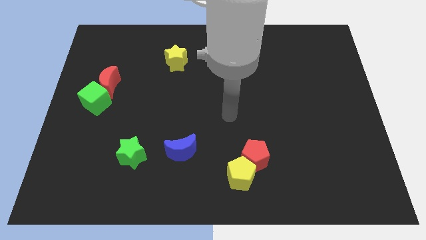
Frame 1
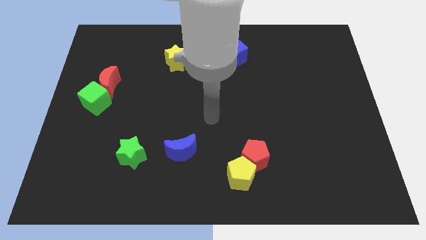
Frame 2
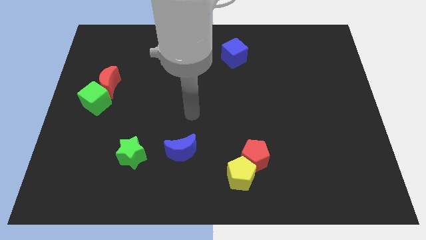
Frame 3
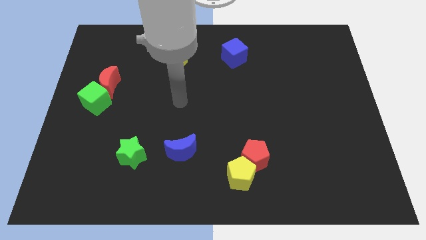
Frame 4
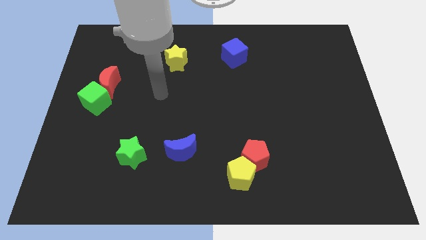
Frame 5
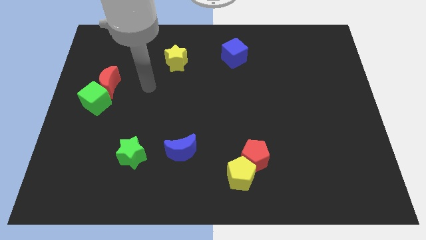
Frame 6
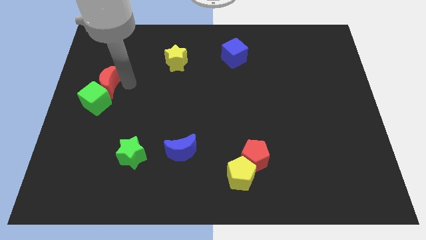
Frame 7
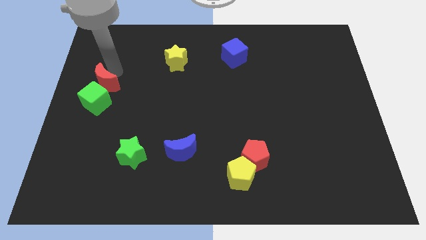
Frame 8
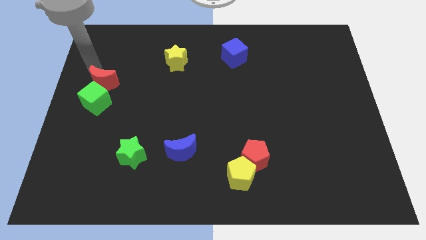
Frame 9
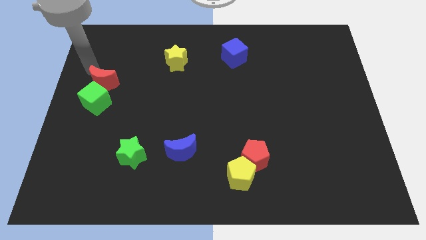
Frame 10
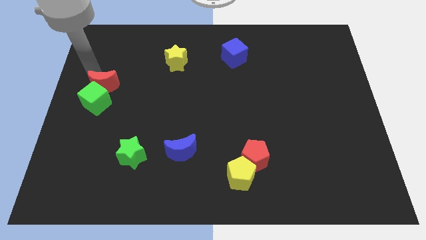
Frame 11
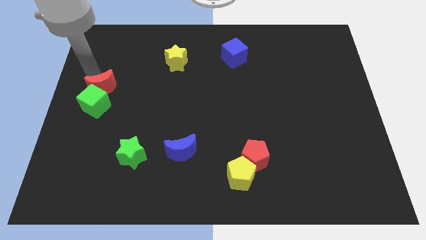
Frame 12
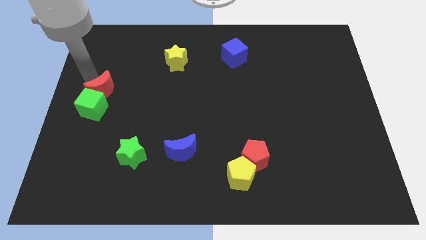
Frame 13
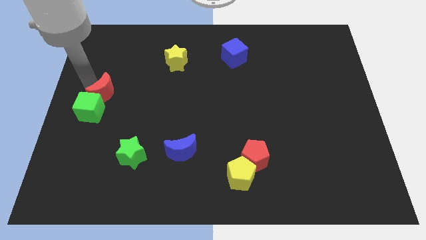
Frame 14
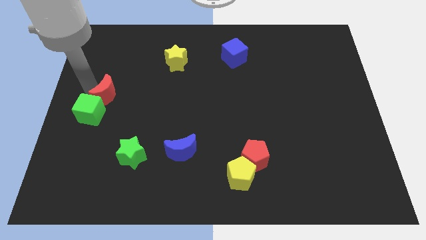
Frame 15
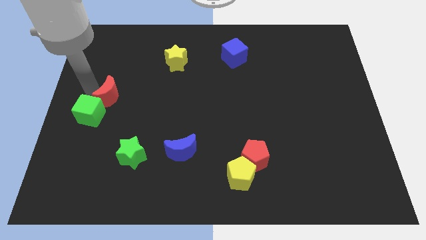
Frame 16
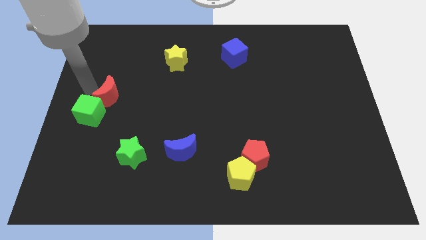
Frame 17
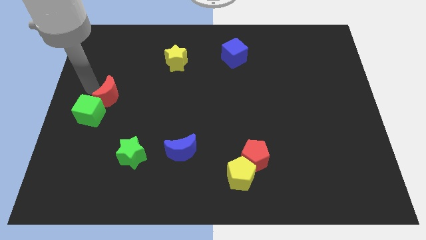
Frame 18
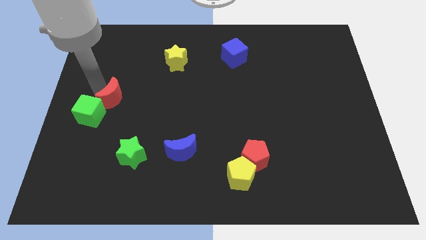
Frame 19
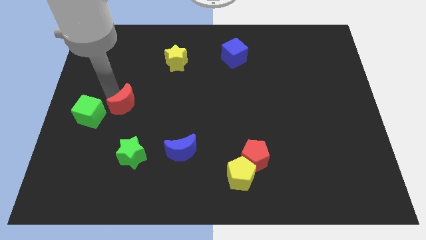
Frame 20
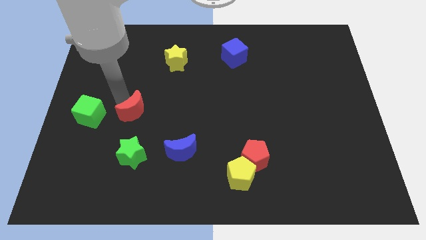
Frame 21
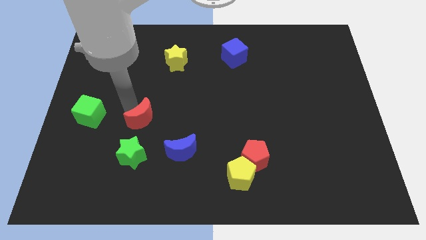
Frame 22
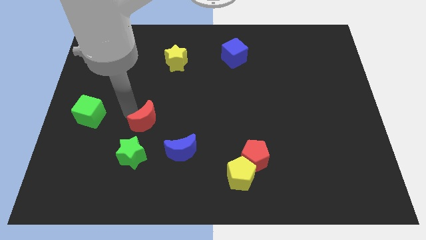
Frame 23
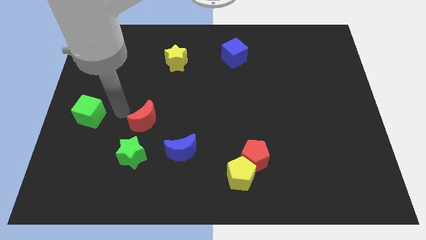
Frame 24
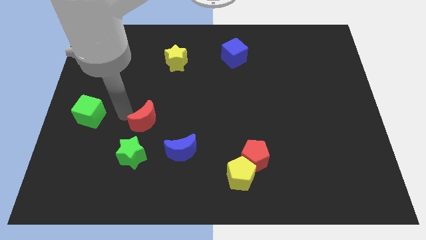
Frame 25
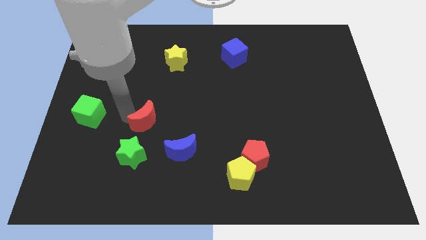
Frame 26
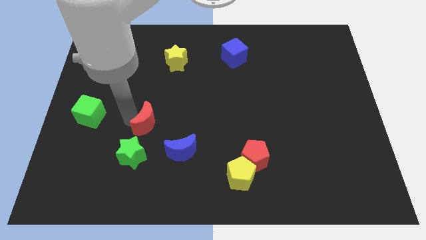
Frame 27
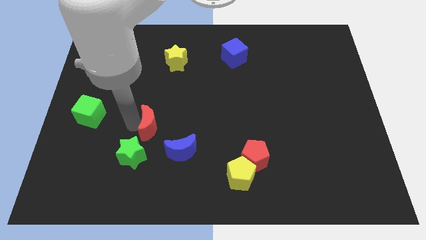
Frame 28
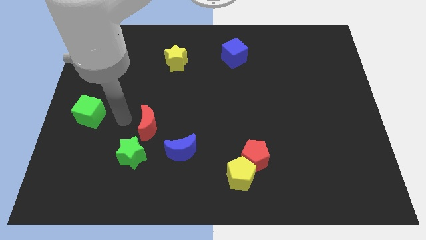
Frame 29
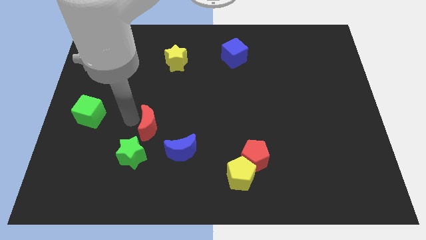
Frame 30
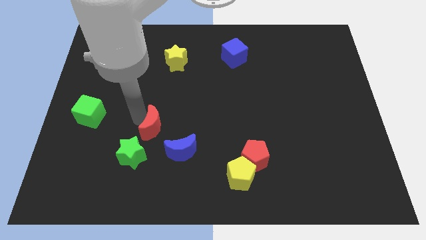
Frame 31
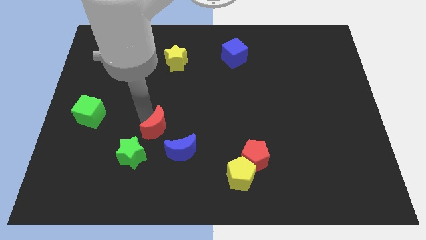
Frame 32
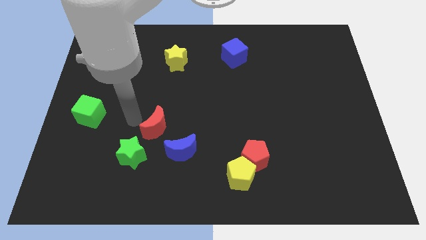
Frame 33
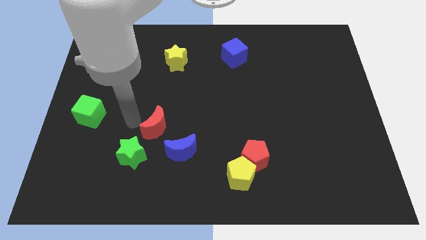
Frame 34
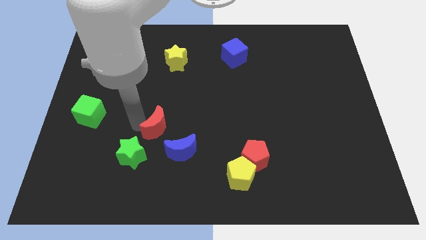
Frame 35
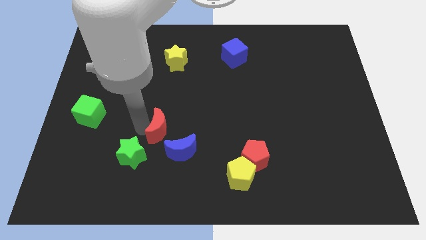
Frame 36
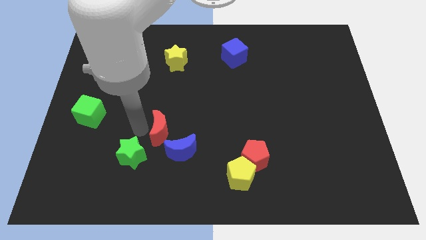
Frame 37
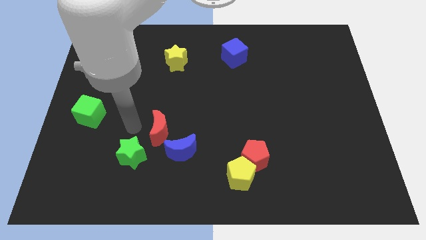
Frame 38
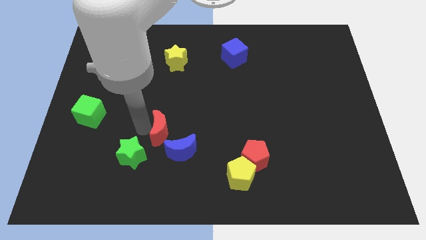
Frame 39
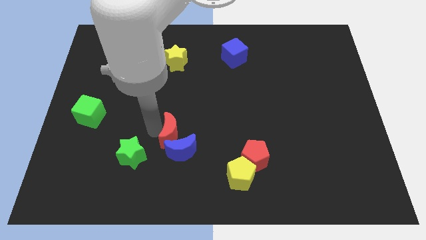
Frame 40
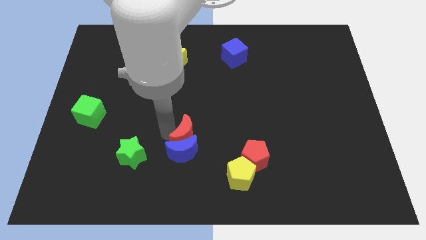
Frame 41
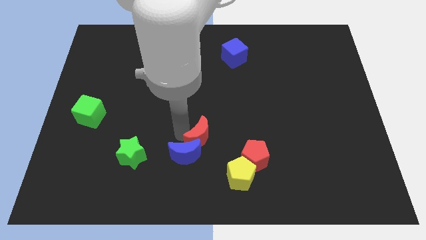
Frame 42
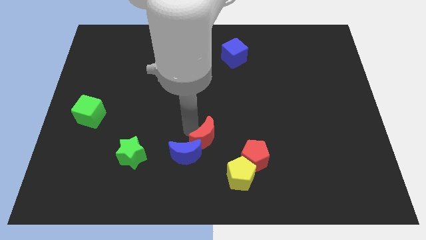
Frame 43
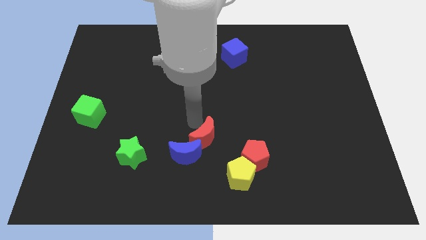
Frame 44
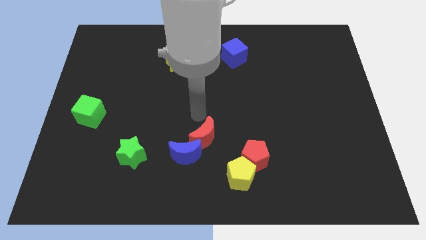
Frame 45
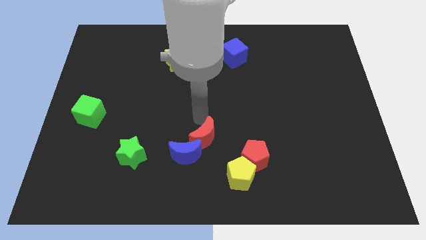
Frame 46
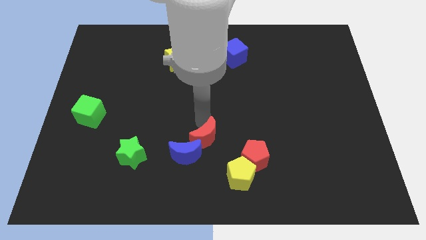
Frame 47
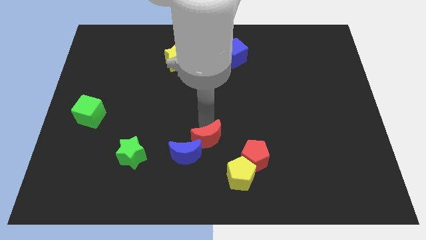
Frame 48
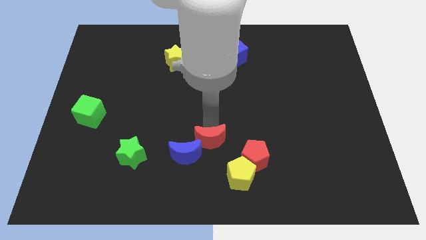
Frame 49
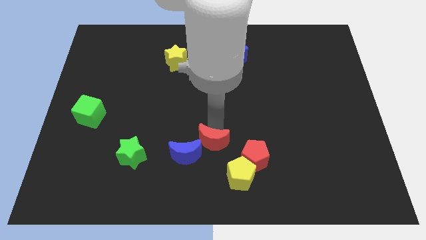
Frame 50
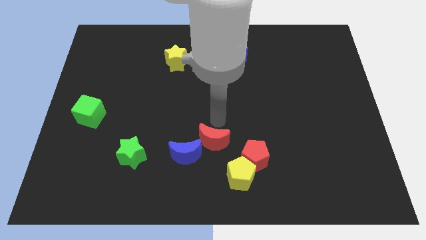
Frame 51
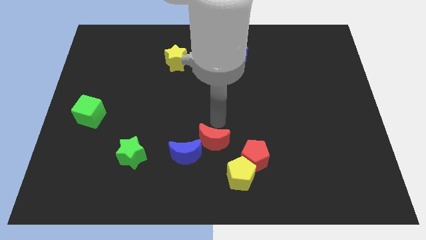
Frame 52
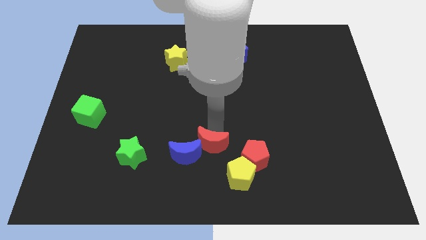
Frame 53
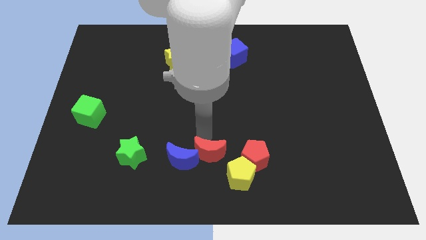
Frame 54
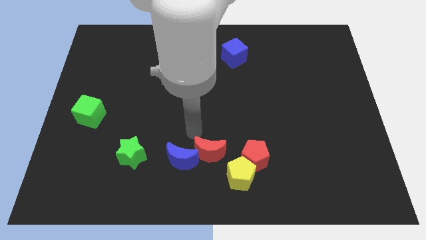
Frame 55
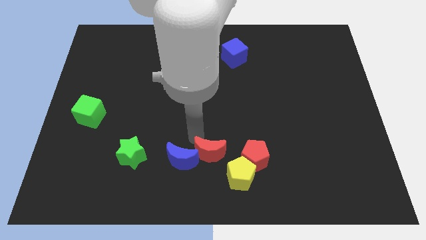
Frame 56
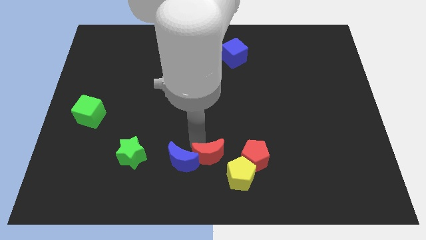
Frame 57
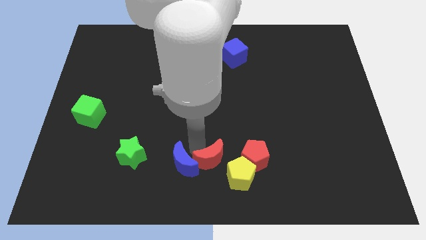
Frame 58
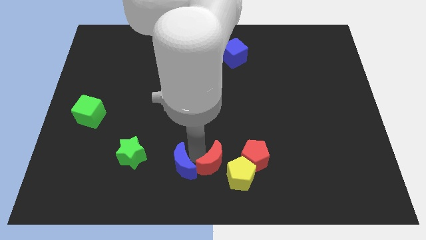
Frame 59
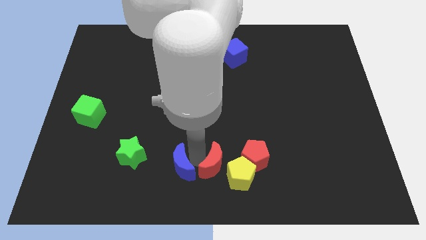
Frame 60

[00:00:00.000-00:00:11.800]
move the red moon to the bottom left of the red pentagon

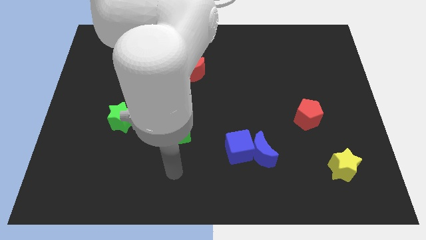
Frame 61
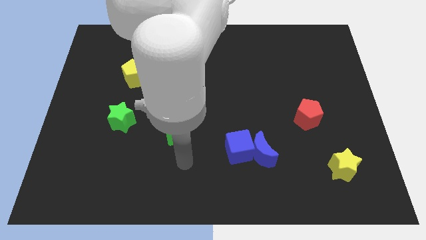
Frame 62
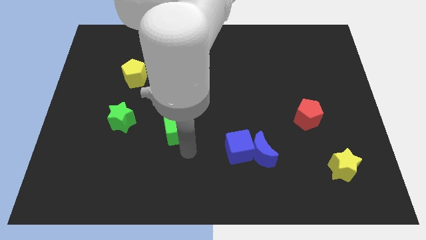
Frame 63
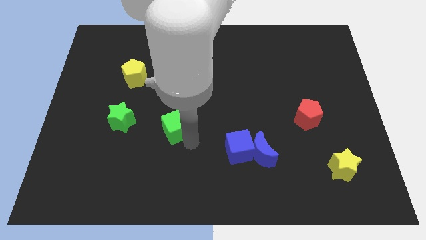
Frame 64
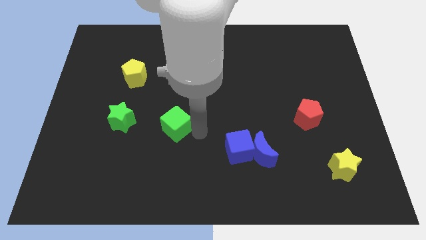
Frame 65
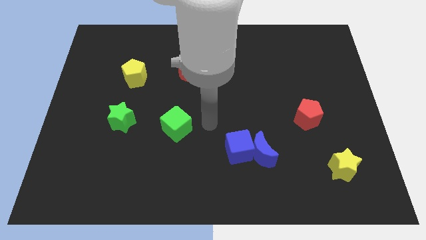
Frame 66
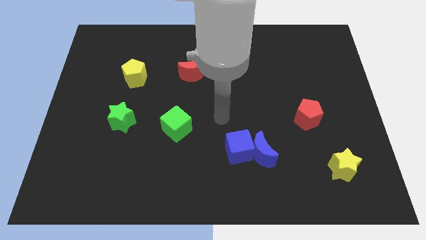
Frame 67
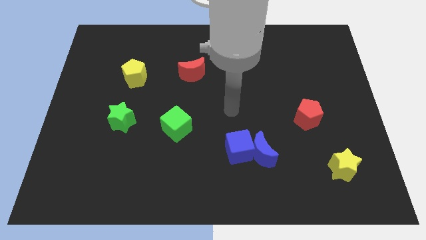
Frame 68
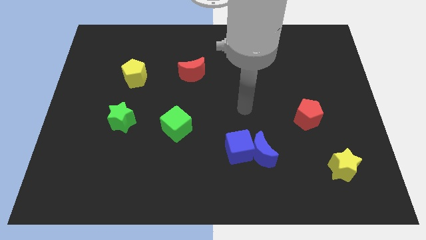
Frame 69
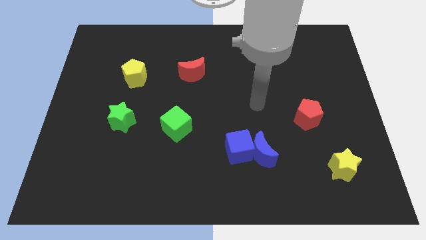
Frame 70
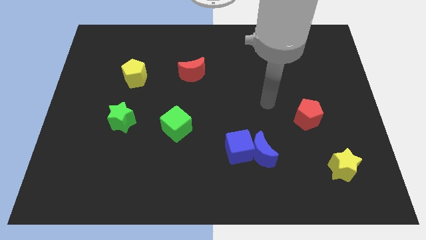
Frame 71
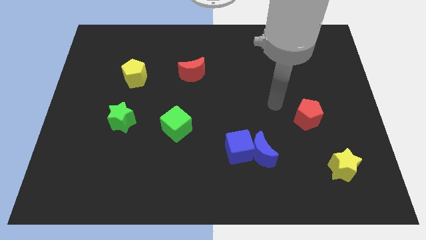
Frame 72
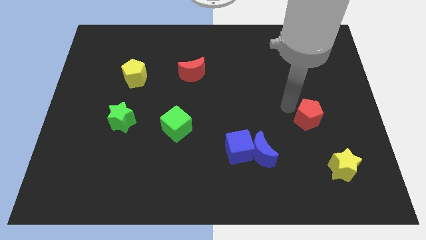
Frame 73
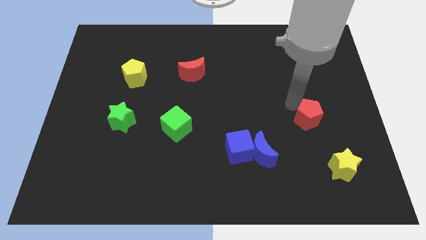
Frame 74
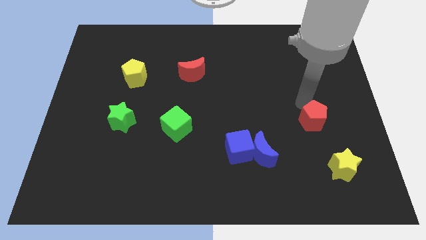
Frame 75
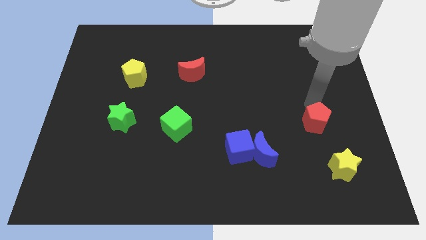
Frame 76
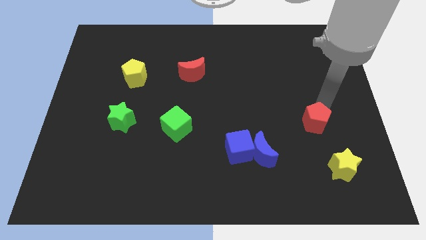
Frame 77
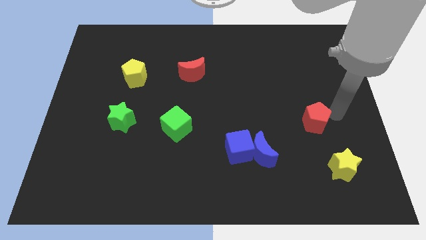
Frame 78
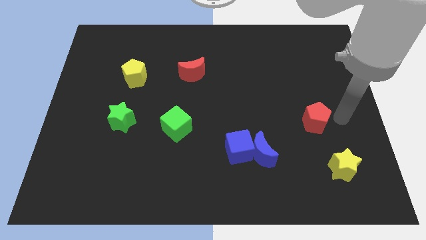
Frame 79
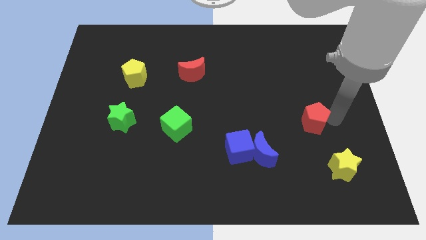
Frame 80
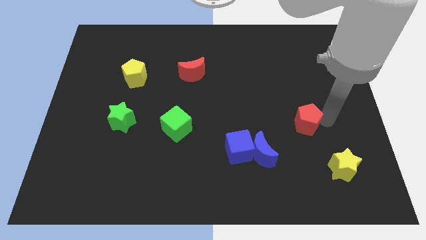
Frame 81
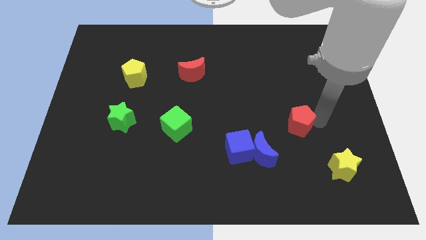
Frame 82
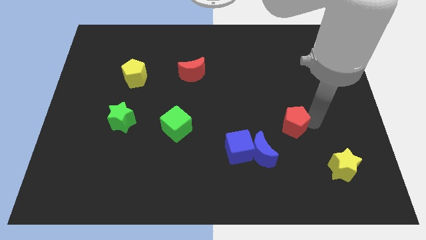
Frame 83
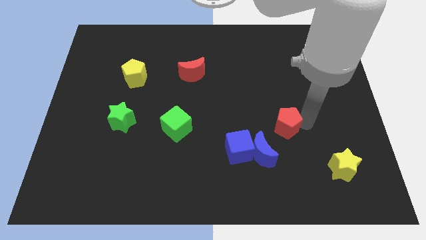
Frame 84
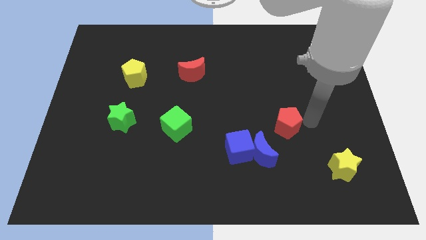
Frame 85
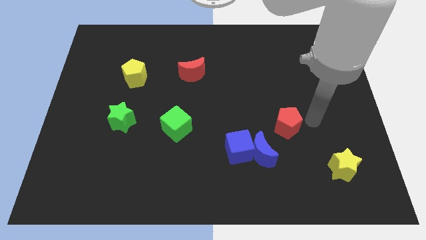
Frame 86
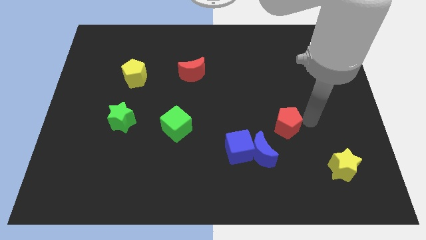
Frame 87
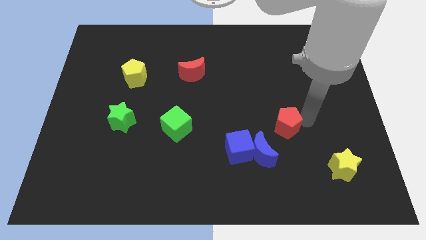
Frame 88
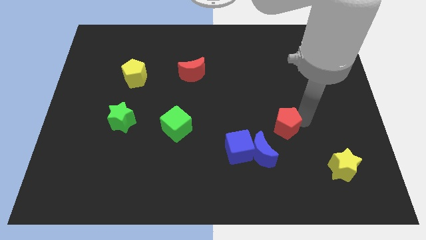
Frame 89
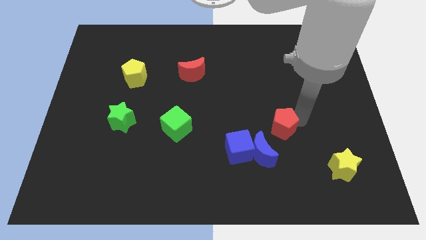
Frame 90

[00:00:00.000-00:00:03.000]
slide the red pentagon to the top right of the blue cube
